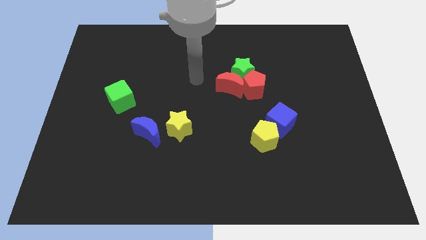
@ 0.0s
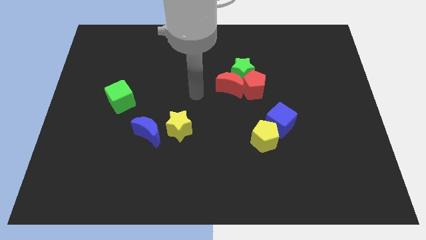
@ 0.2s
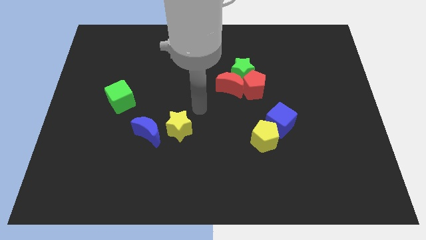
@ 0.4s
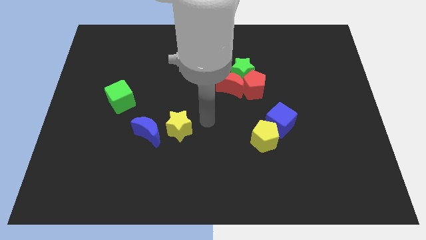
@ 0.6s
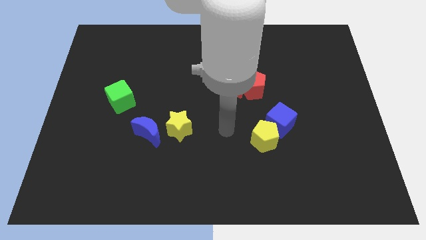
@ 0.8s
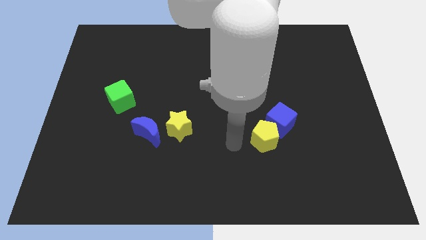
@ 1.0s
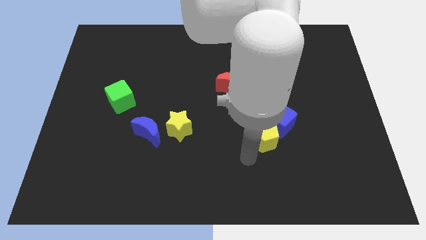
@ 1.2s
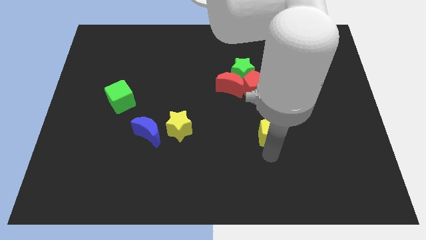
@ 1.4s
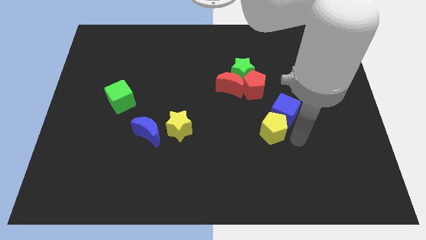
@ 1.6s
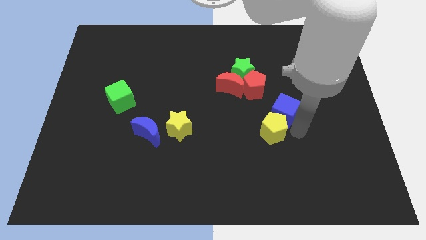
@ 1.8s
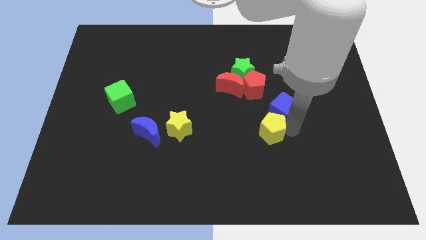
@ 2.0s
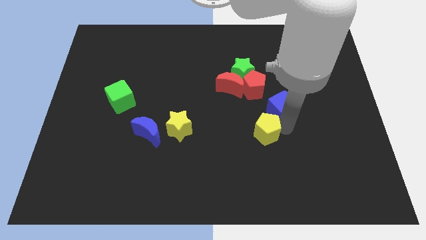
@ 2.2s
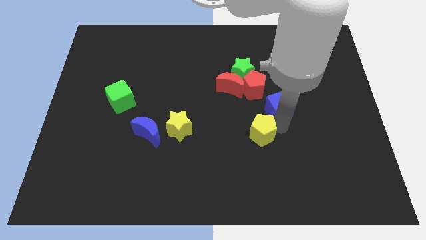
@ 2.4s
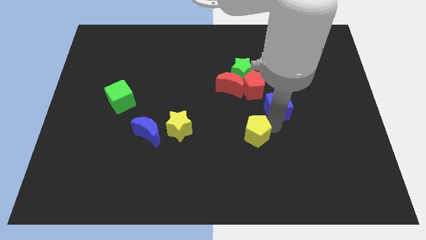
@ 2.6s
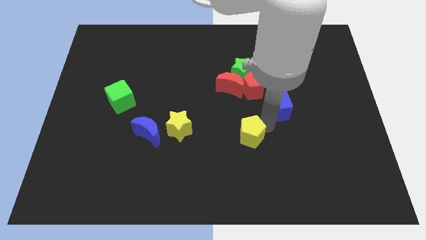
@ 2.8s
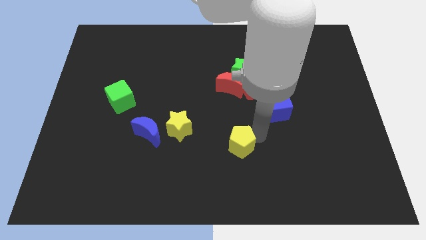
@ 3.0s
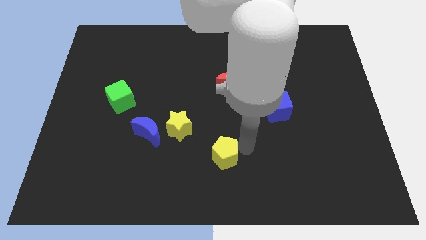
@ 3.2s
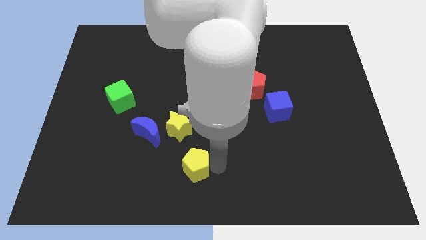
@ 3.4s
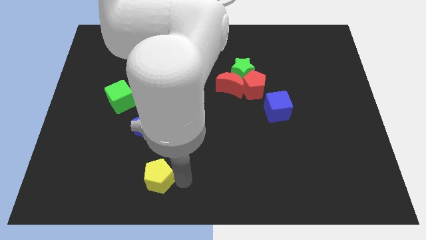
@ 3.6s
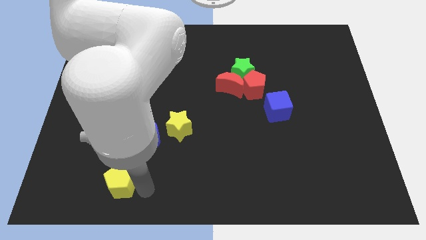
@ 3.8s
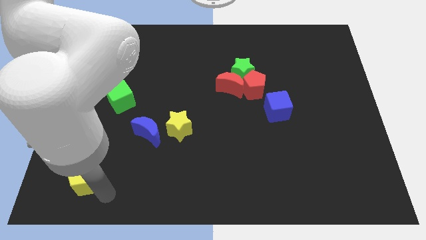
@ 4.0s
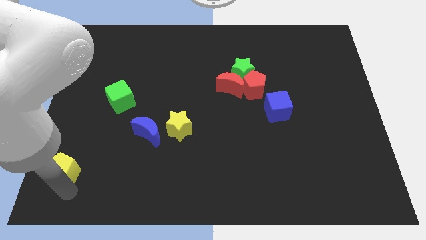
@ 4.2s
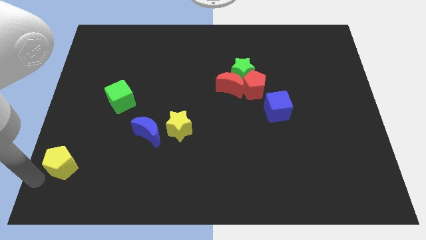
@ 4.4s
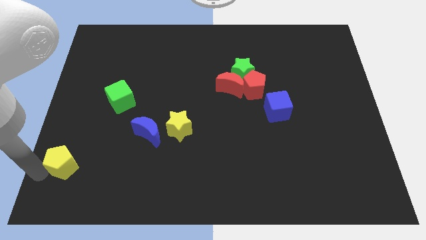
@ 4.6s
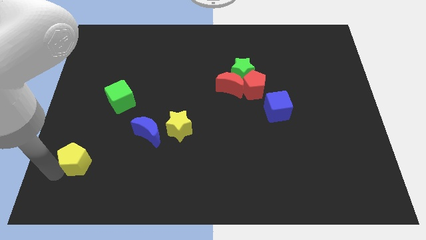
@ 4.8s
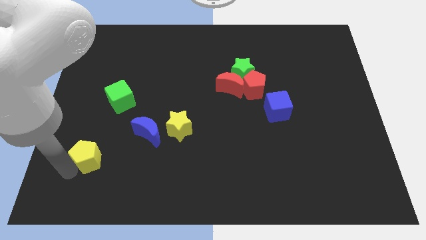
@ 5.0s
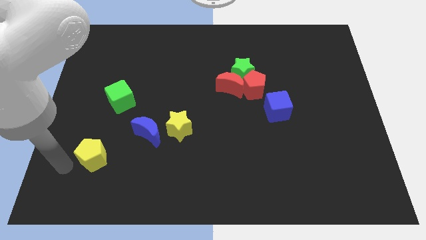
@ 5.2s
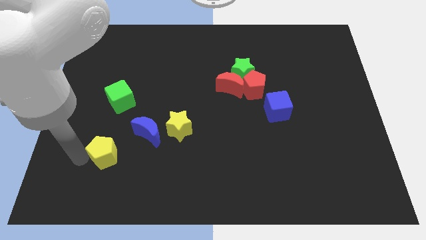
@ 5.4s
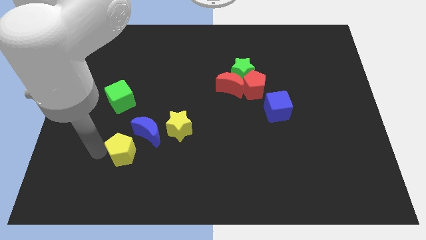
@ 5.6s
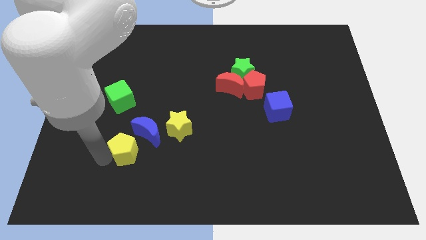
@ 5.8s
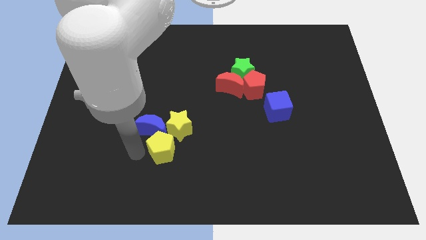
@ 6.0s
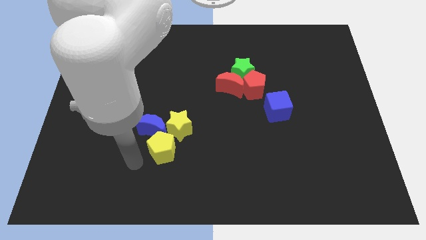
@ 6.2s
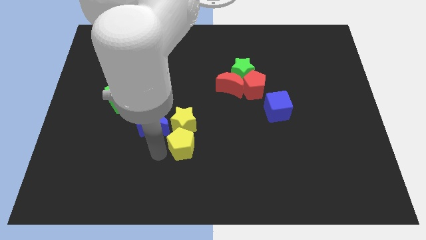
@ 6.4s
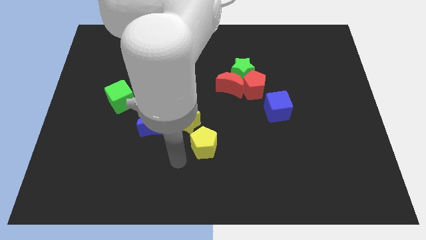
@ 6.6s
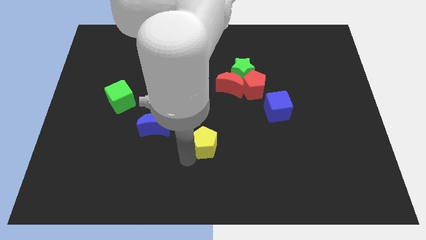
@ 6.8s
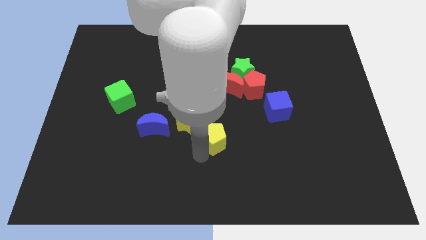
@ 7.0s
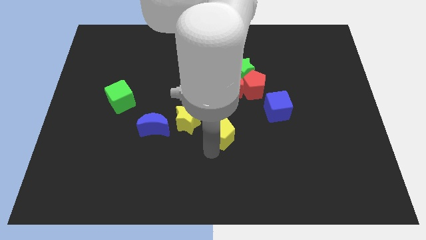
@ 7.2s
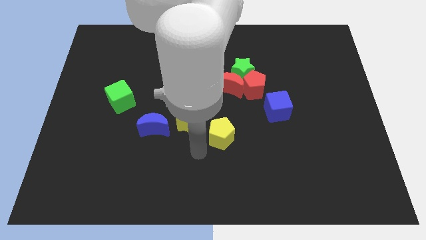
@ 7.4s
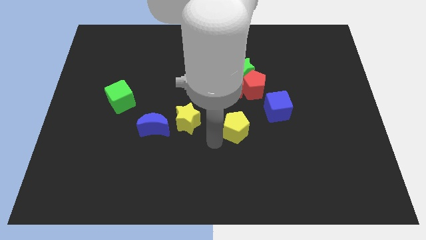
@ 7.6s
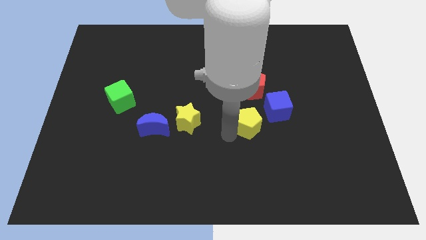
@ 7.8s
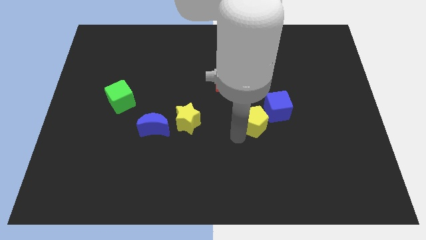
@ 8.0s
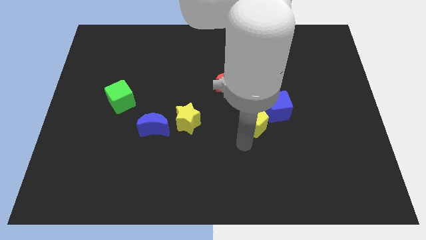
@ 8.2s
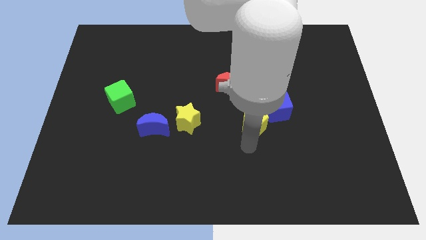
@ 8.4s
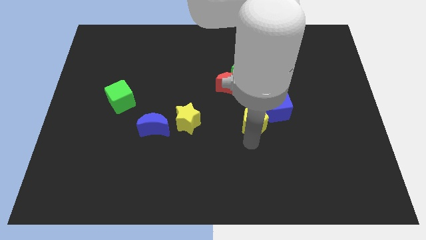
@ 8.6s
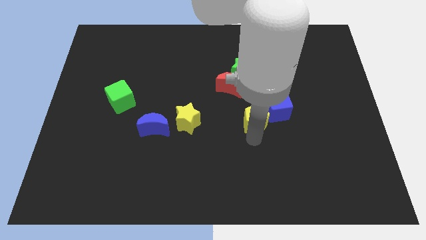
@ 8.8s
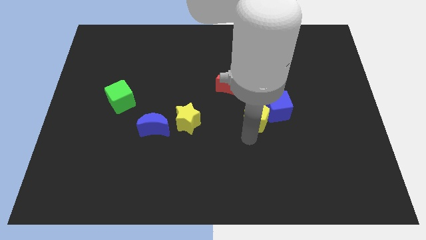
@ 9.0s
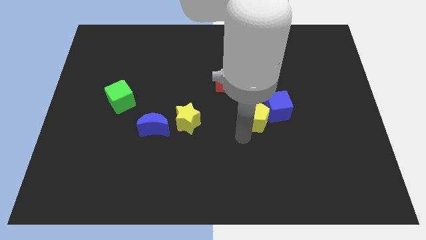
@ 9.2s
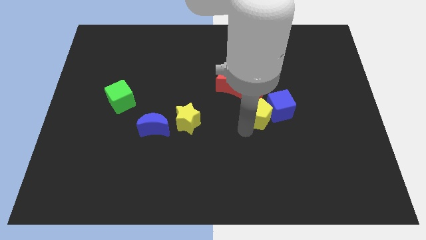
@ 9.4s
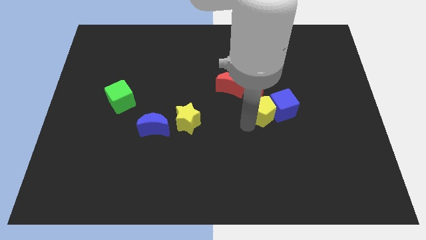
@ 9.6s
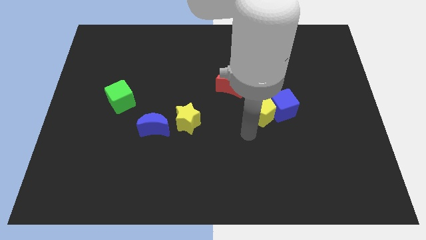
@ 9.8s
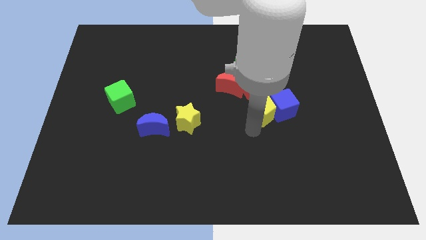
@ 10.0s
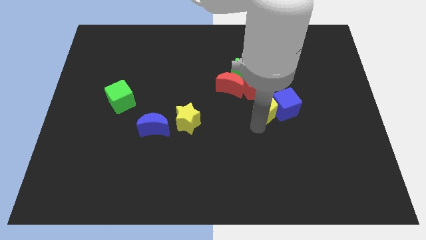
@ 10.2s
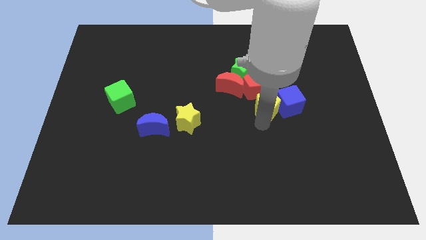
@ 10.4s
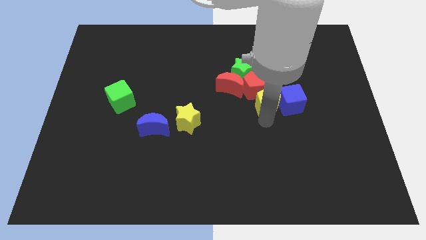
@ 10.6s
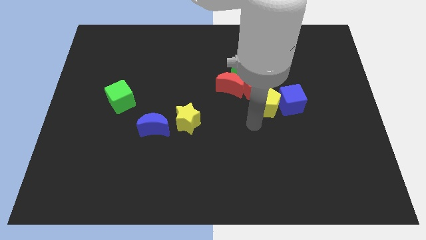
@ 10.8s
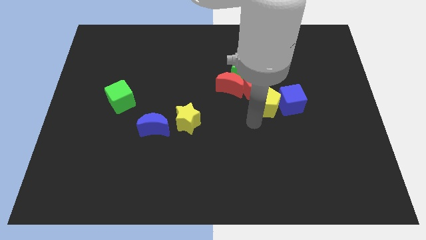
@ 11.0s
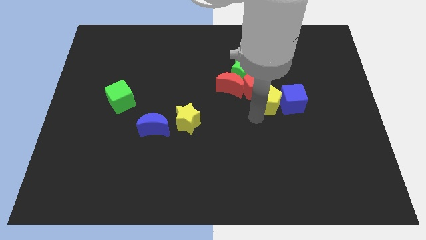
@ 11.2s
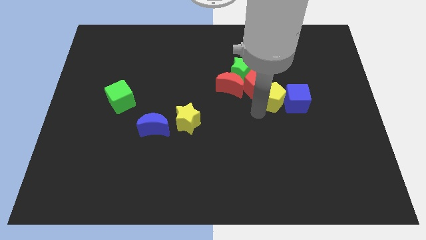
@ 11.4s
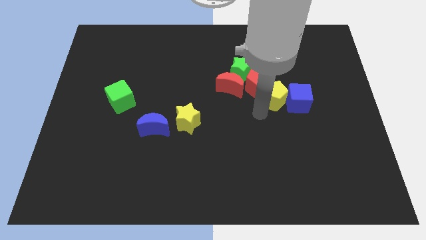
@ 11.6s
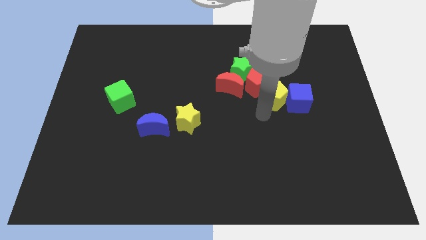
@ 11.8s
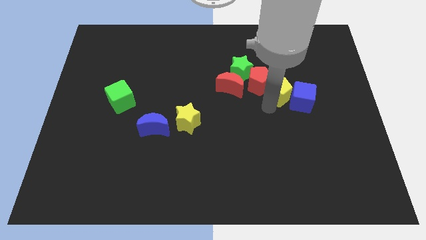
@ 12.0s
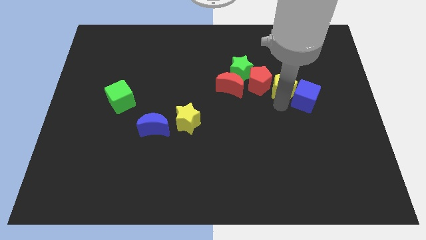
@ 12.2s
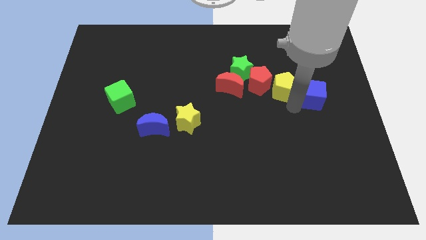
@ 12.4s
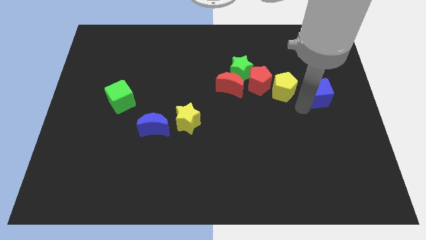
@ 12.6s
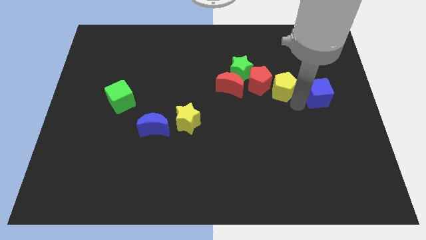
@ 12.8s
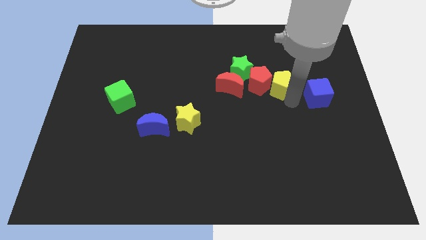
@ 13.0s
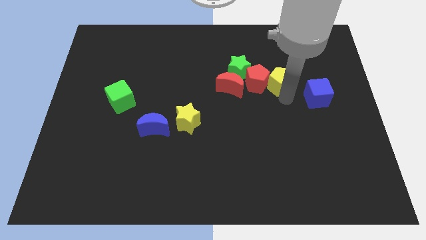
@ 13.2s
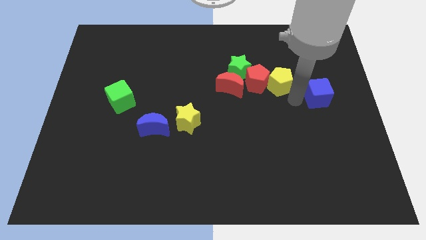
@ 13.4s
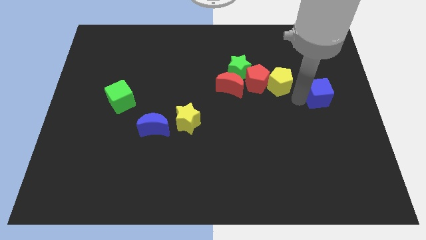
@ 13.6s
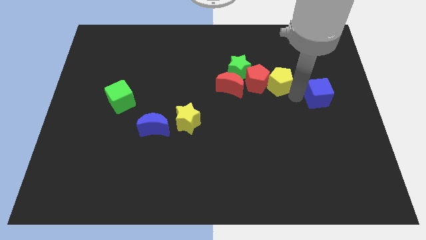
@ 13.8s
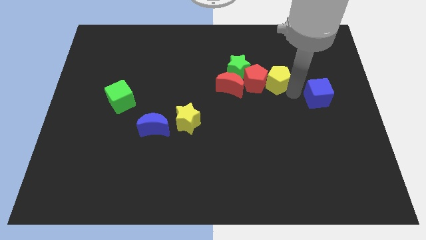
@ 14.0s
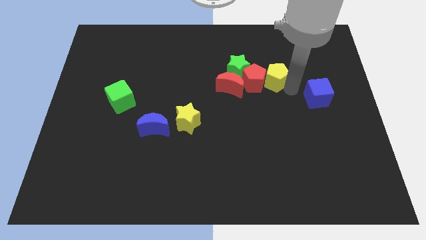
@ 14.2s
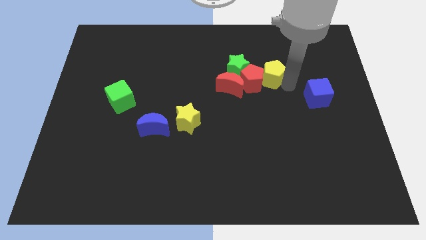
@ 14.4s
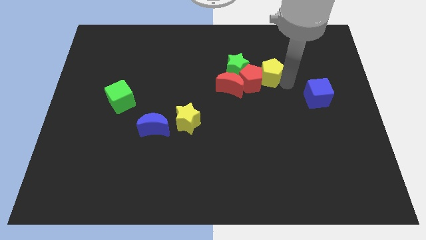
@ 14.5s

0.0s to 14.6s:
move the yellow pentagon to the top right side of the red moon
